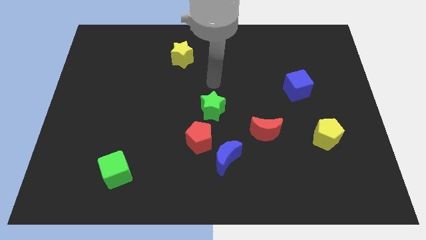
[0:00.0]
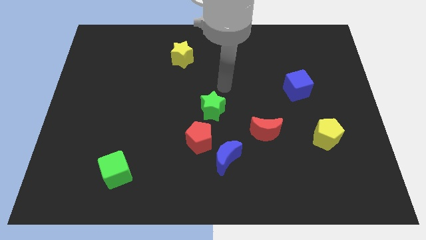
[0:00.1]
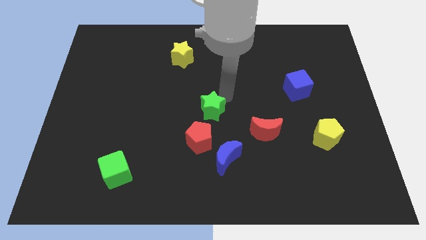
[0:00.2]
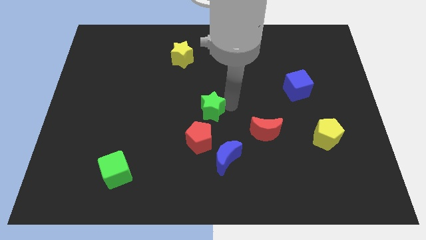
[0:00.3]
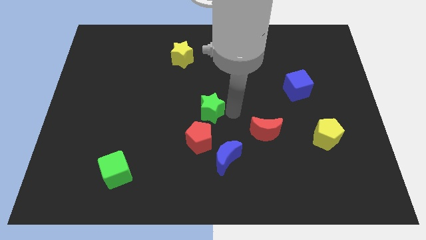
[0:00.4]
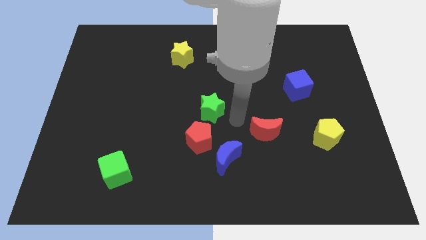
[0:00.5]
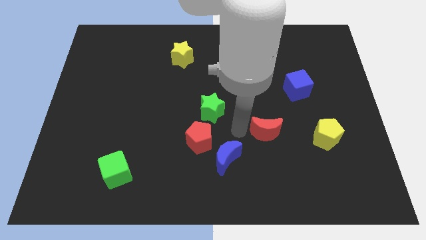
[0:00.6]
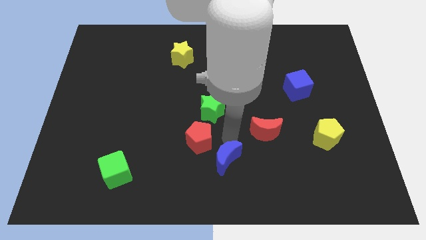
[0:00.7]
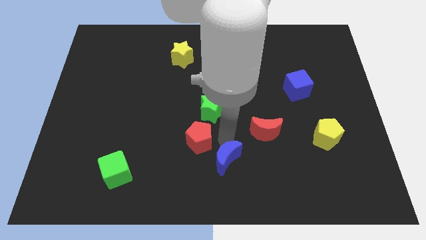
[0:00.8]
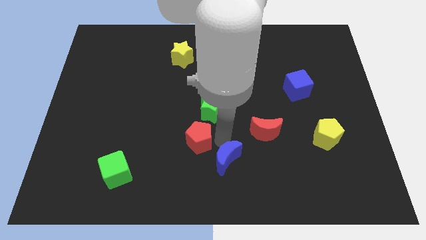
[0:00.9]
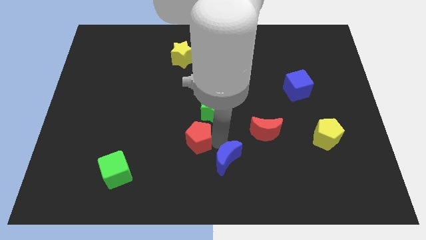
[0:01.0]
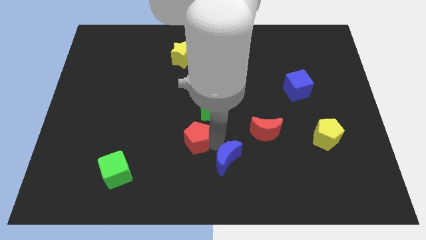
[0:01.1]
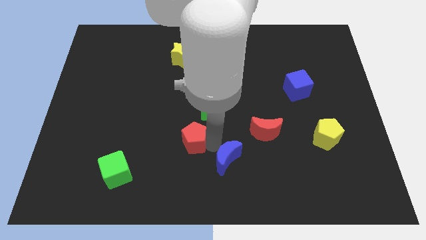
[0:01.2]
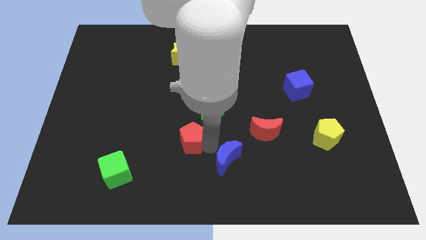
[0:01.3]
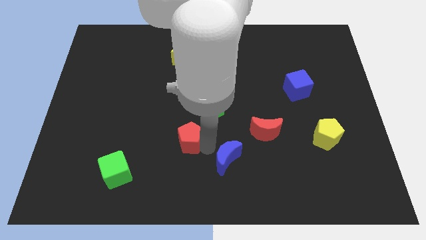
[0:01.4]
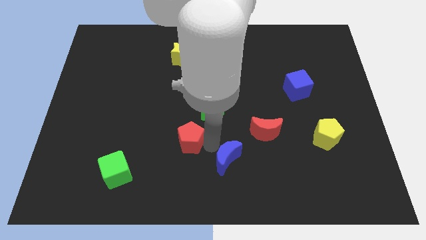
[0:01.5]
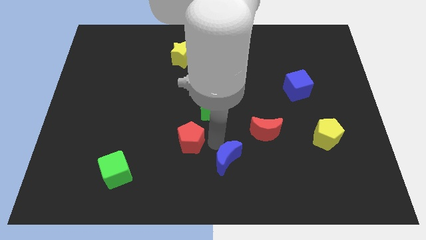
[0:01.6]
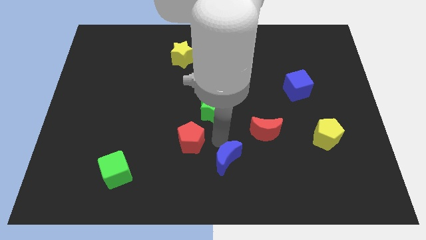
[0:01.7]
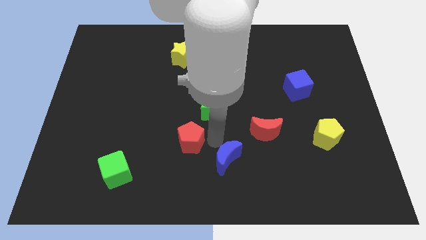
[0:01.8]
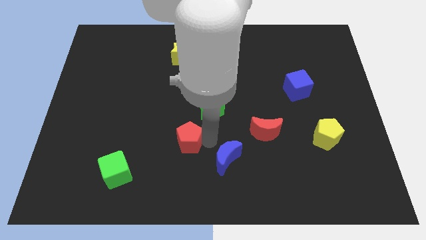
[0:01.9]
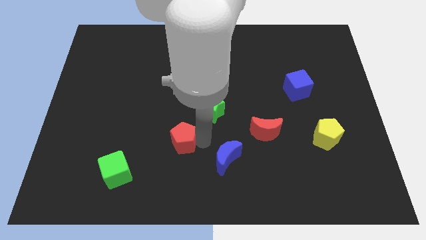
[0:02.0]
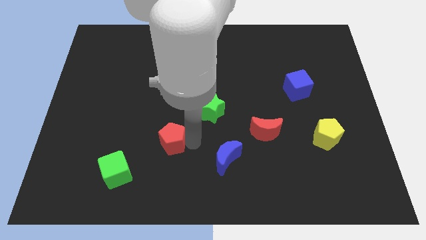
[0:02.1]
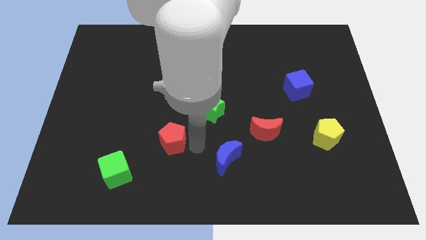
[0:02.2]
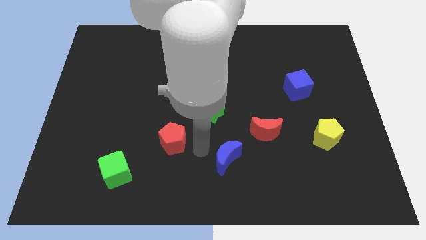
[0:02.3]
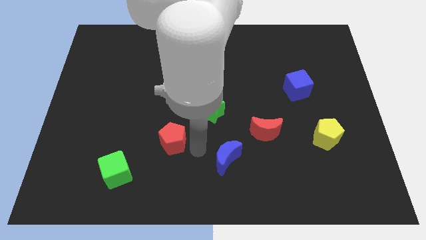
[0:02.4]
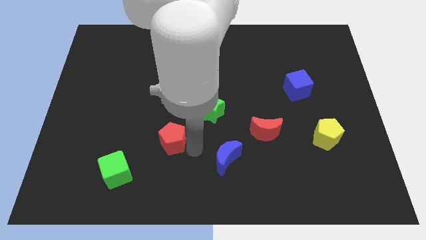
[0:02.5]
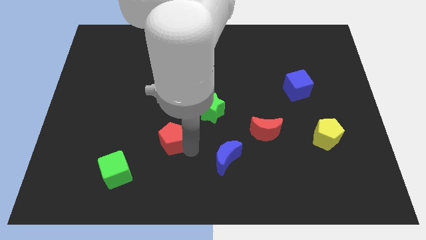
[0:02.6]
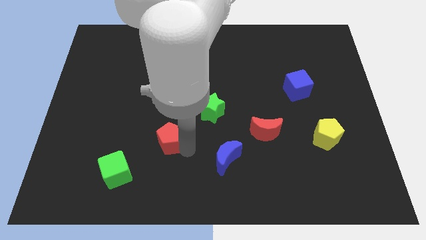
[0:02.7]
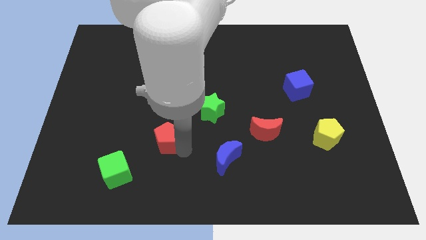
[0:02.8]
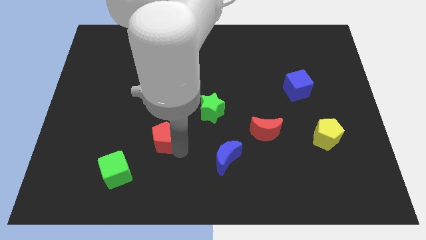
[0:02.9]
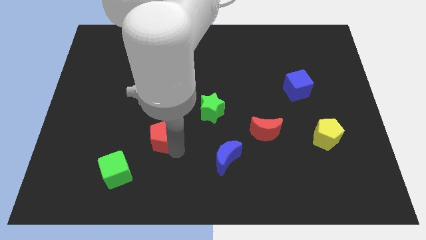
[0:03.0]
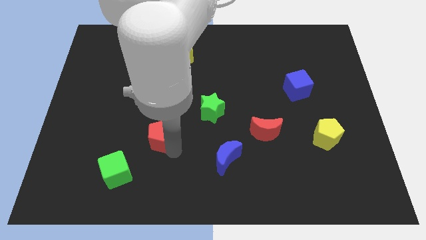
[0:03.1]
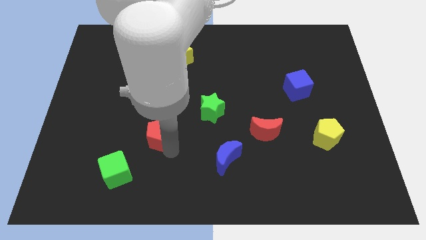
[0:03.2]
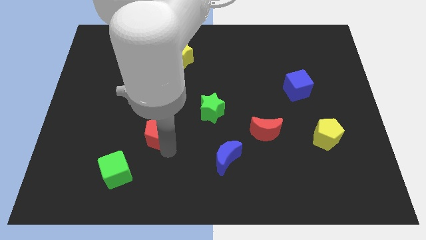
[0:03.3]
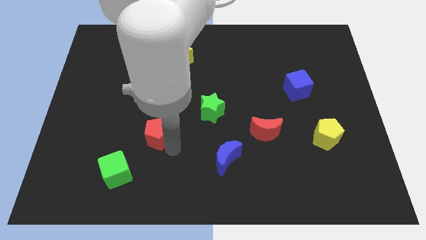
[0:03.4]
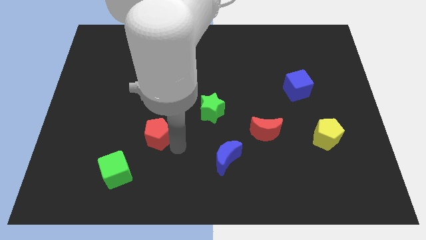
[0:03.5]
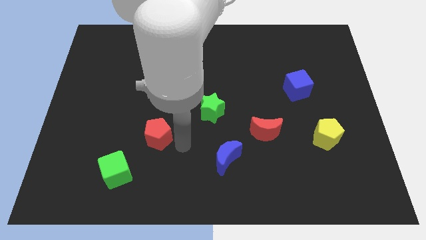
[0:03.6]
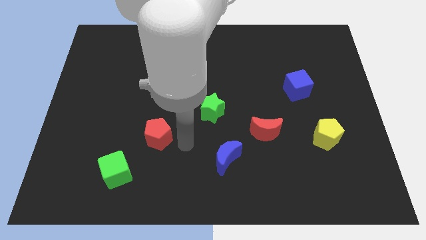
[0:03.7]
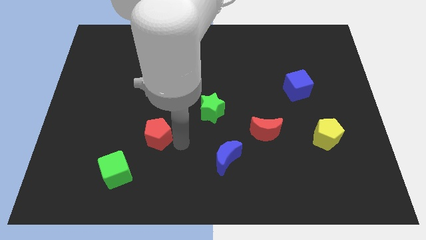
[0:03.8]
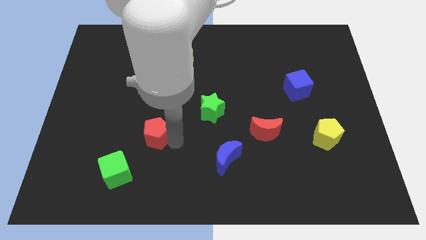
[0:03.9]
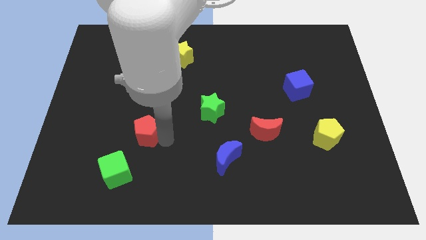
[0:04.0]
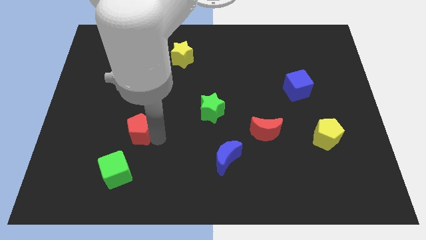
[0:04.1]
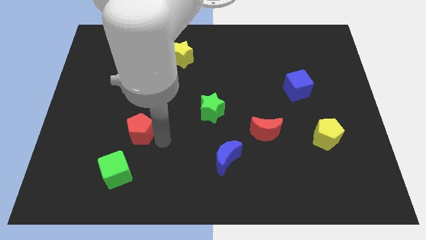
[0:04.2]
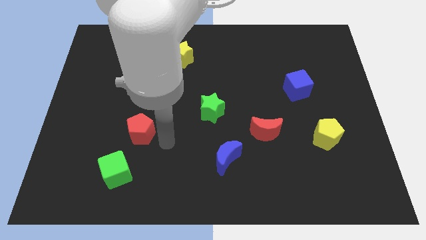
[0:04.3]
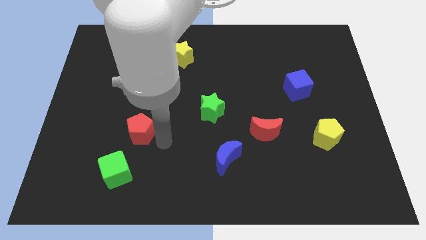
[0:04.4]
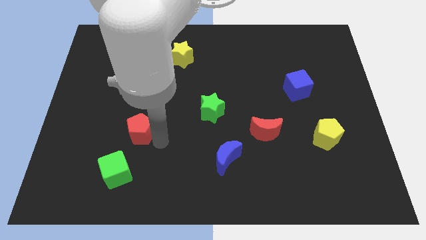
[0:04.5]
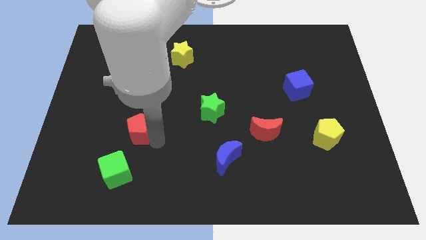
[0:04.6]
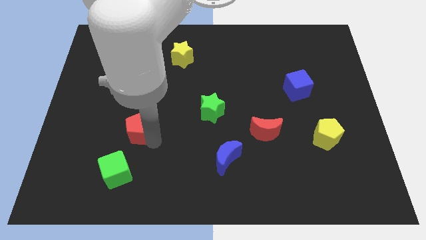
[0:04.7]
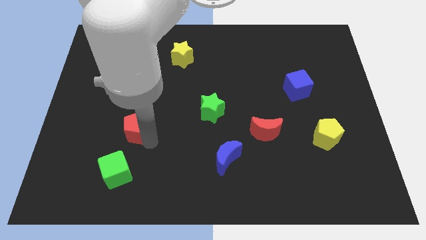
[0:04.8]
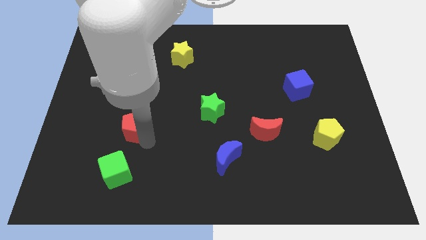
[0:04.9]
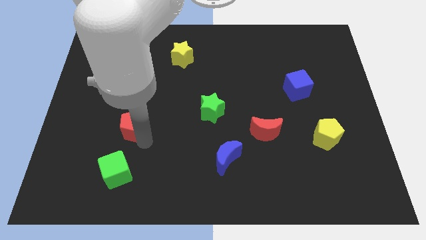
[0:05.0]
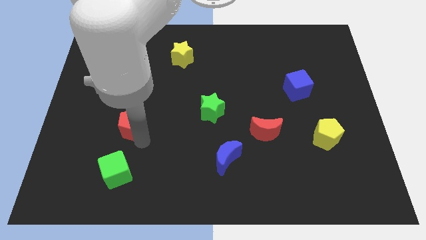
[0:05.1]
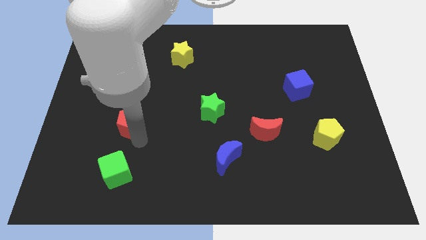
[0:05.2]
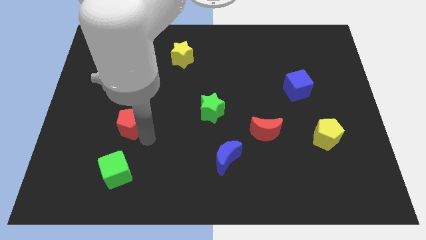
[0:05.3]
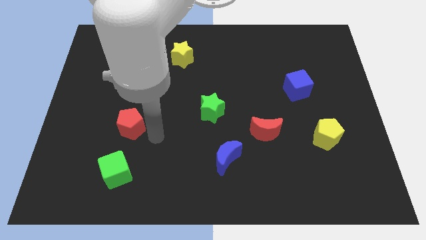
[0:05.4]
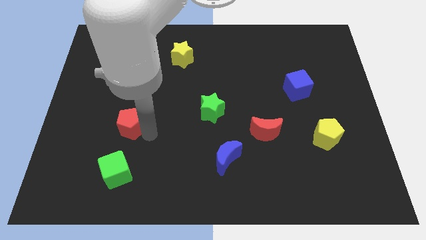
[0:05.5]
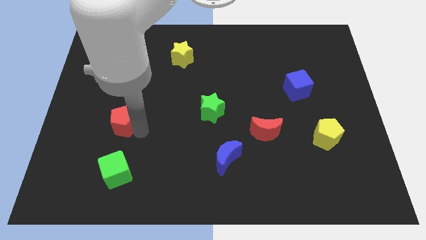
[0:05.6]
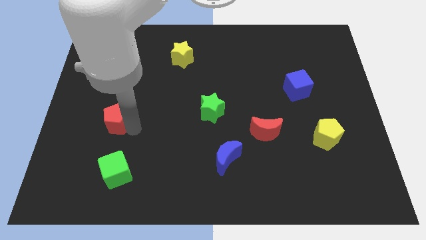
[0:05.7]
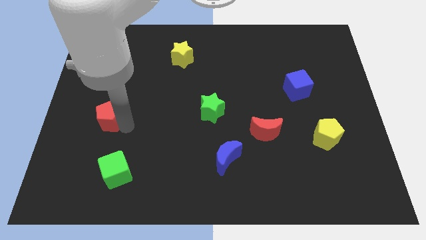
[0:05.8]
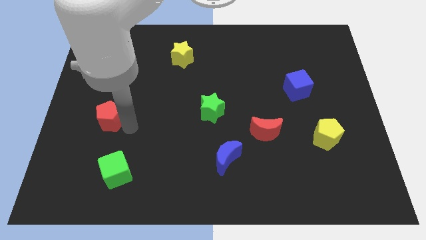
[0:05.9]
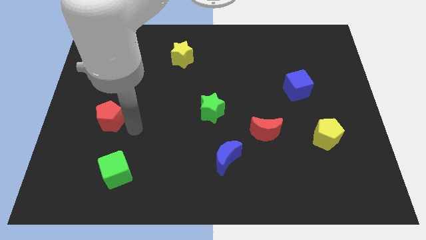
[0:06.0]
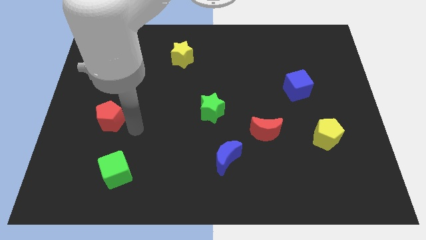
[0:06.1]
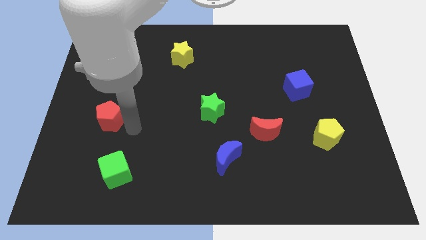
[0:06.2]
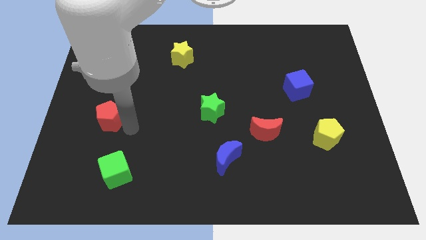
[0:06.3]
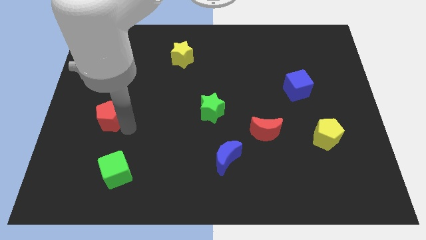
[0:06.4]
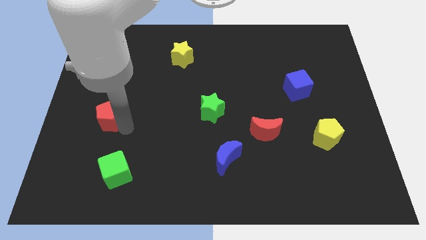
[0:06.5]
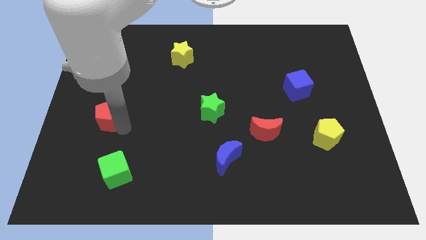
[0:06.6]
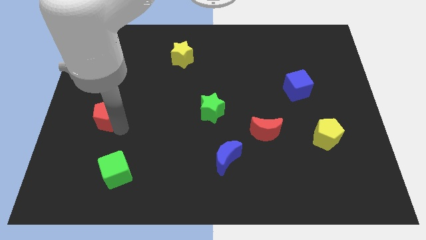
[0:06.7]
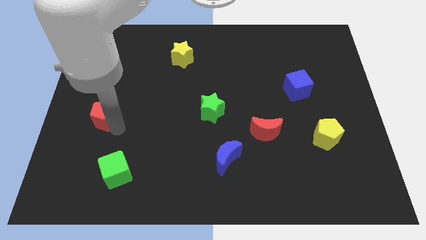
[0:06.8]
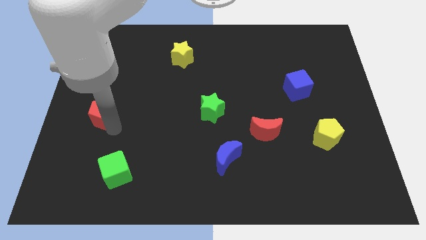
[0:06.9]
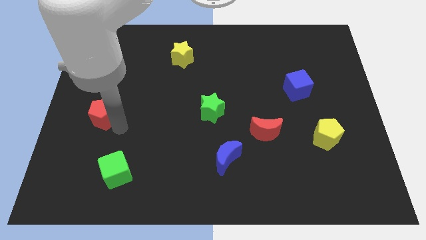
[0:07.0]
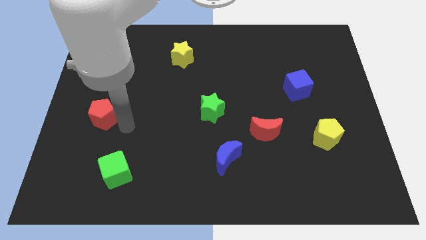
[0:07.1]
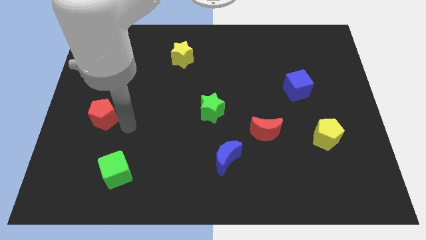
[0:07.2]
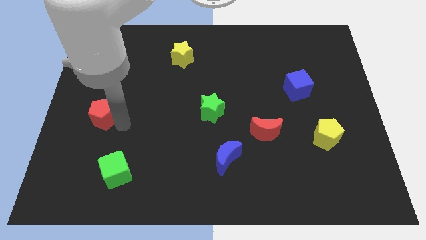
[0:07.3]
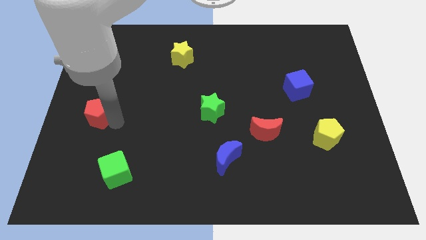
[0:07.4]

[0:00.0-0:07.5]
push the red pentagon to the left side of the board
